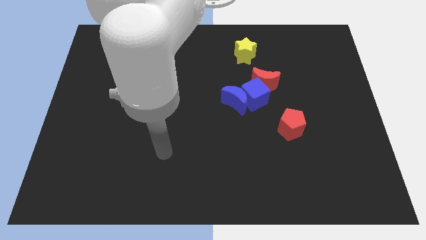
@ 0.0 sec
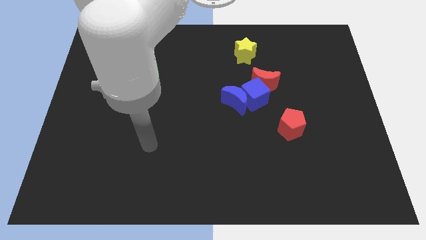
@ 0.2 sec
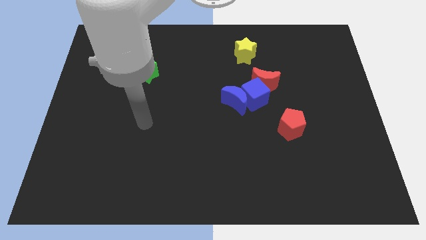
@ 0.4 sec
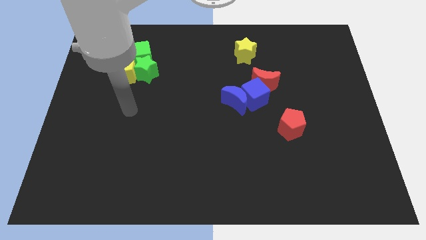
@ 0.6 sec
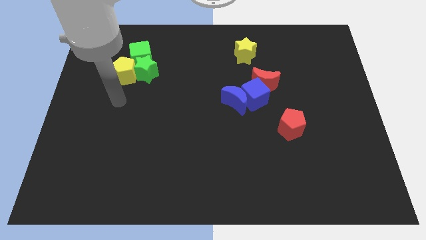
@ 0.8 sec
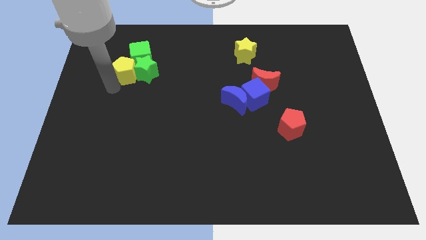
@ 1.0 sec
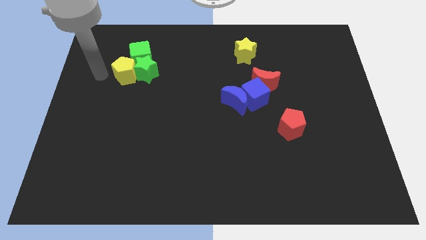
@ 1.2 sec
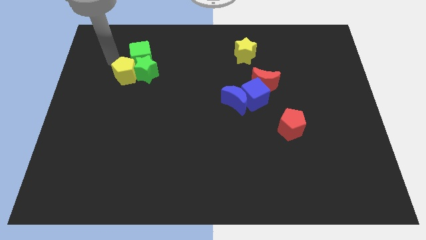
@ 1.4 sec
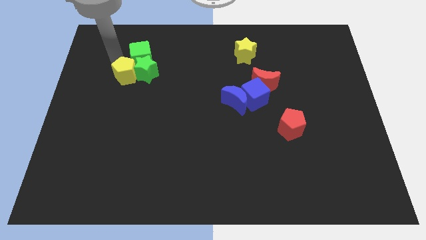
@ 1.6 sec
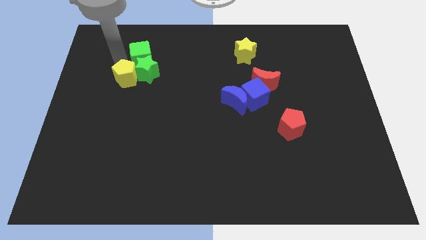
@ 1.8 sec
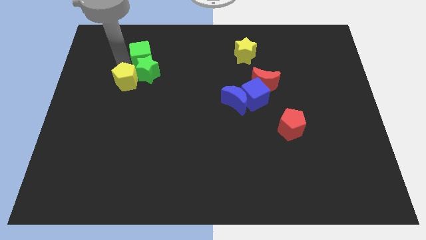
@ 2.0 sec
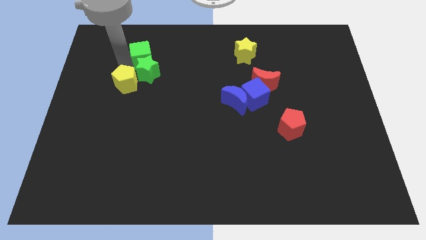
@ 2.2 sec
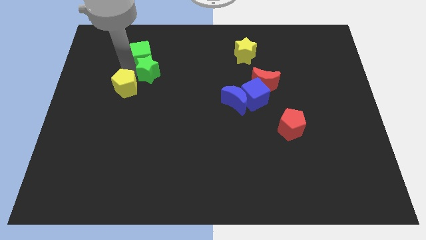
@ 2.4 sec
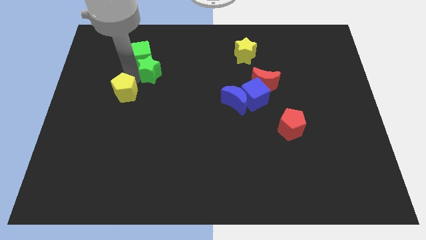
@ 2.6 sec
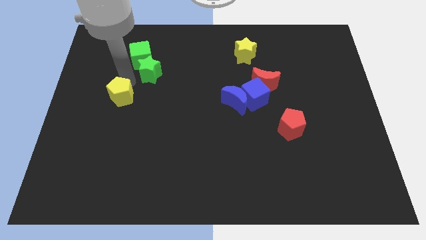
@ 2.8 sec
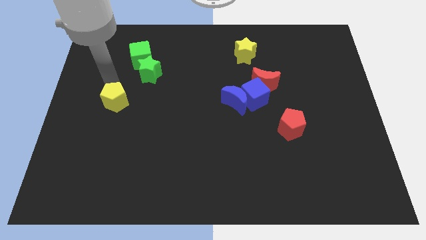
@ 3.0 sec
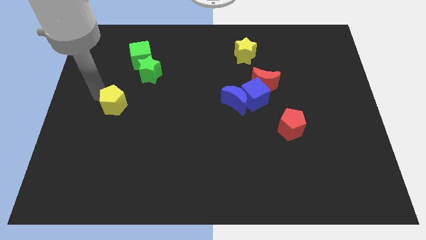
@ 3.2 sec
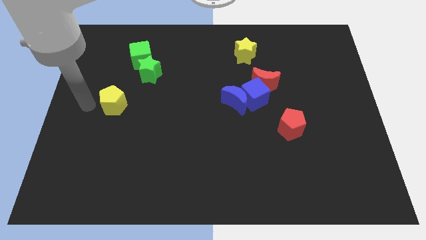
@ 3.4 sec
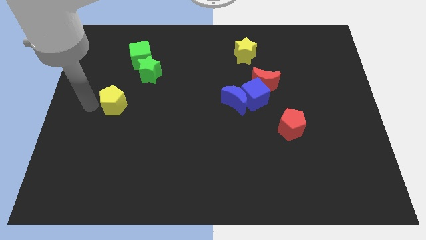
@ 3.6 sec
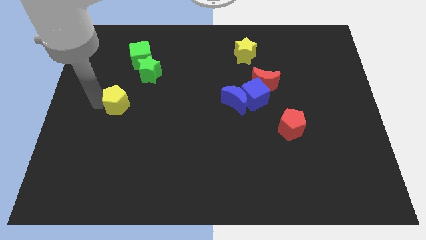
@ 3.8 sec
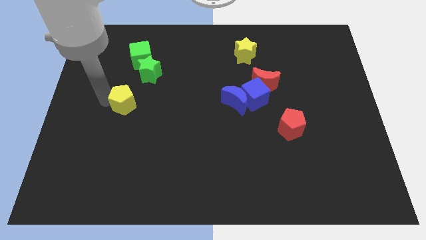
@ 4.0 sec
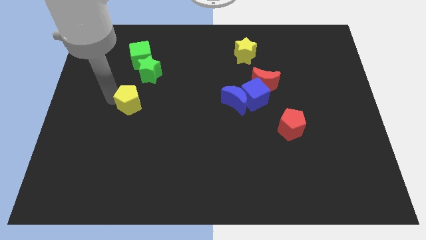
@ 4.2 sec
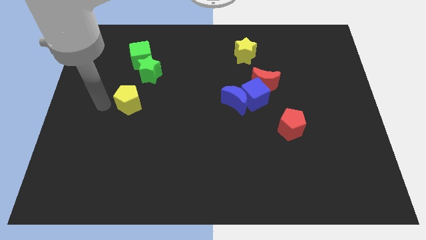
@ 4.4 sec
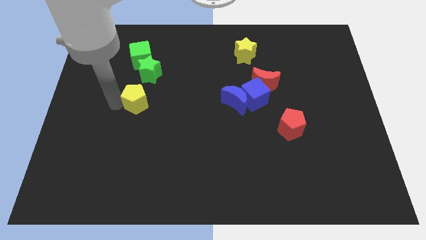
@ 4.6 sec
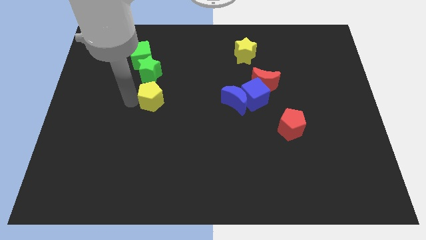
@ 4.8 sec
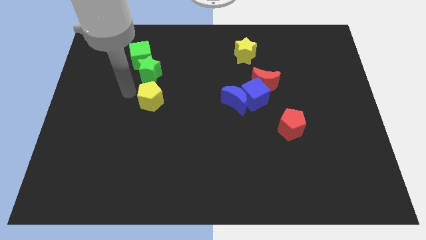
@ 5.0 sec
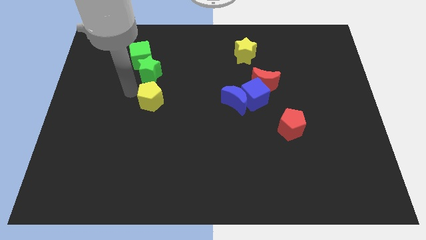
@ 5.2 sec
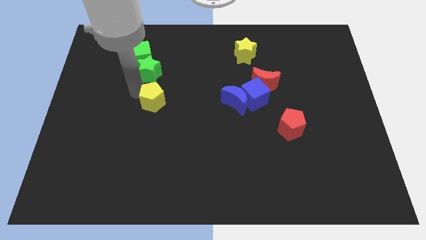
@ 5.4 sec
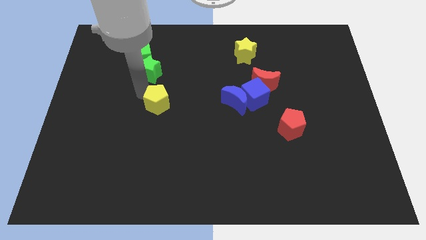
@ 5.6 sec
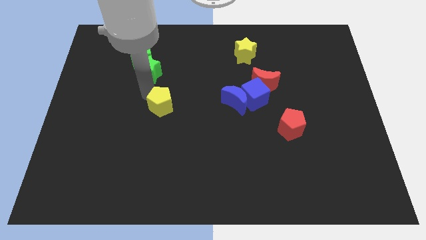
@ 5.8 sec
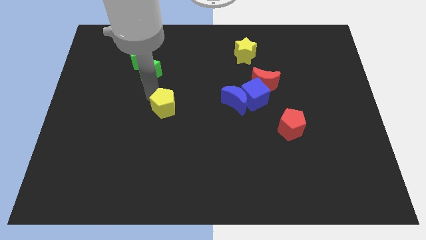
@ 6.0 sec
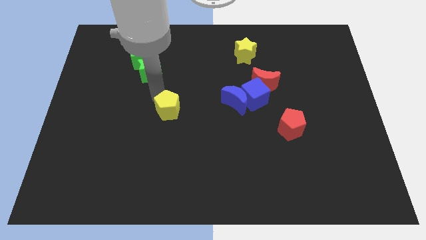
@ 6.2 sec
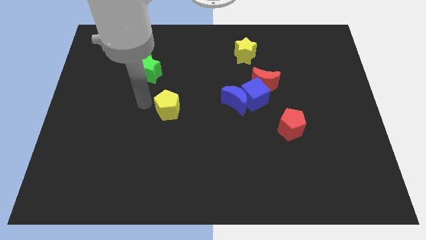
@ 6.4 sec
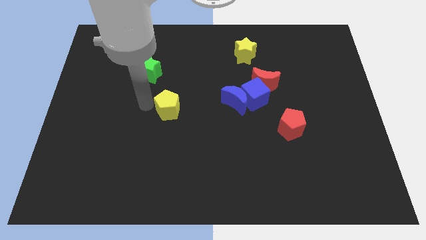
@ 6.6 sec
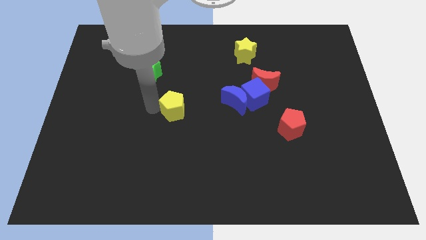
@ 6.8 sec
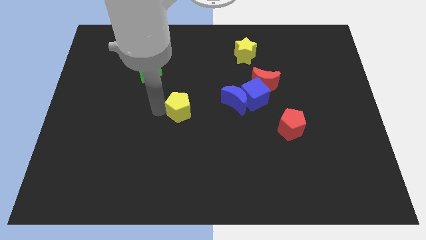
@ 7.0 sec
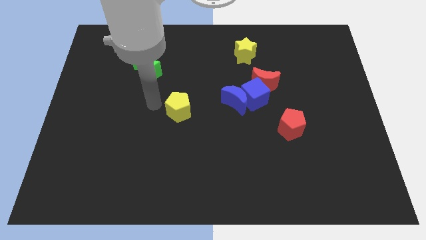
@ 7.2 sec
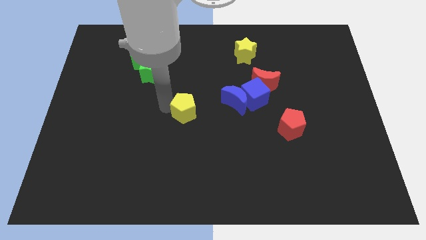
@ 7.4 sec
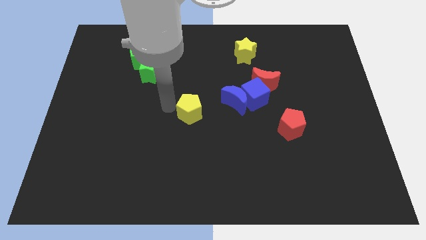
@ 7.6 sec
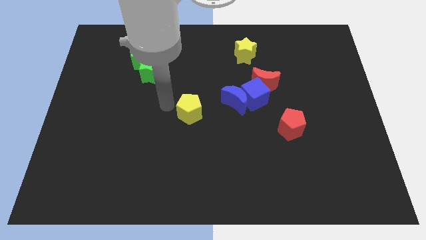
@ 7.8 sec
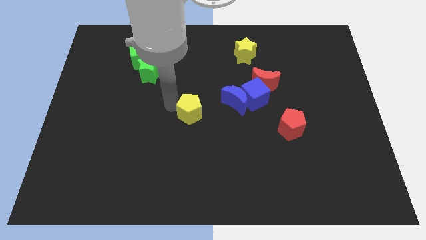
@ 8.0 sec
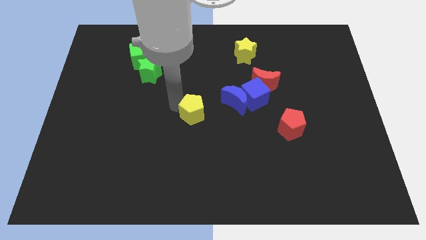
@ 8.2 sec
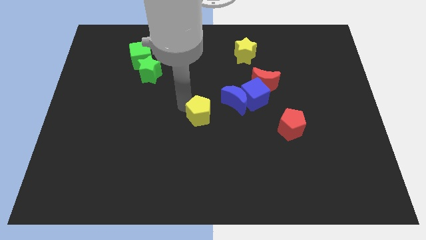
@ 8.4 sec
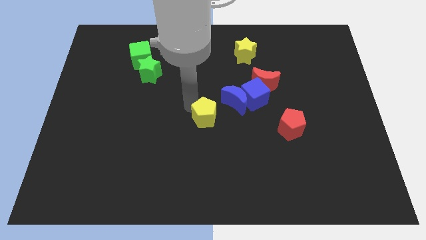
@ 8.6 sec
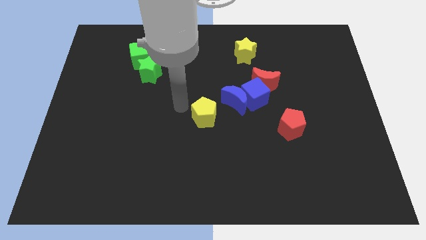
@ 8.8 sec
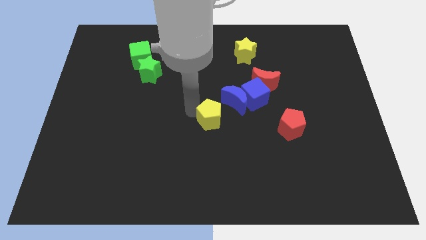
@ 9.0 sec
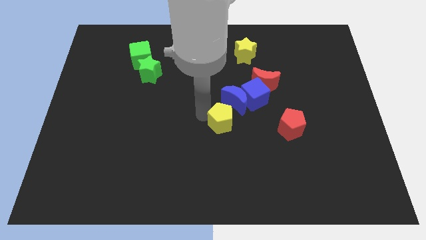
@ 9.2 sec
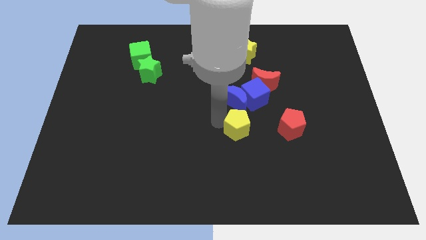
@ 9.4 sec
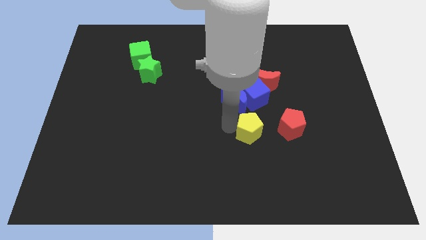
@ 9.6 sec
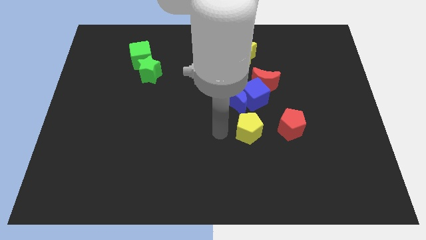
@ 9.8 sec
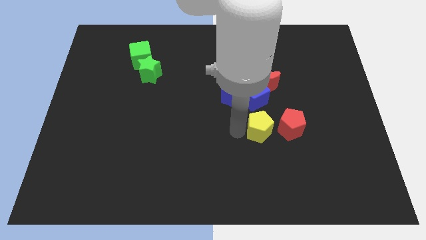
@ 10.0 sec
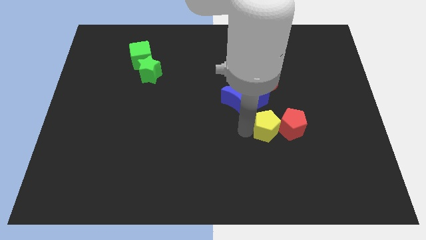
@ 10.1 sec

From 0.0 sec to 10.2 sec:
put the yellow pentagon close to the red pentagon

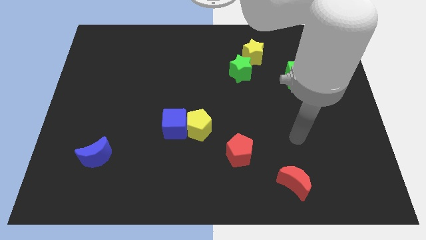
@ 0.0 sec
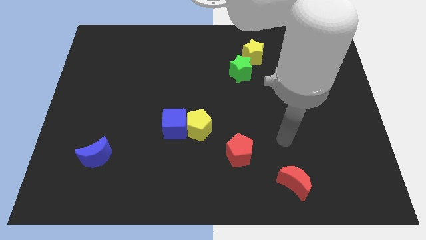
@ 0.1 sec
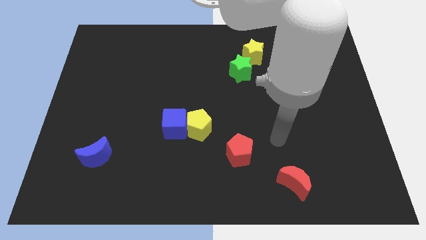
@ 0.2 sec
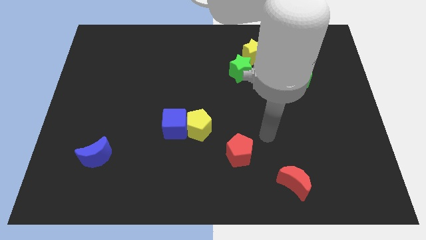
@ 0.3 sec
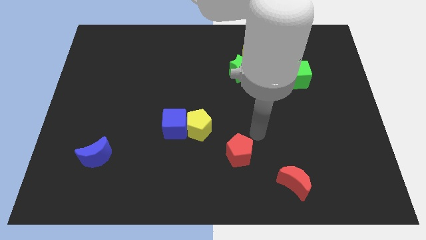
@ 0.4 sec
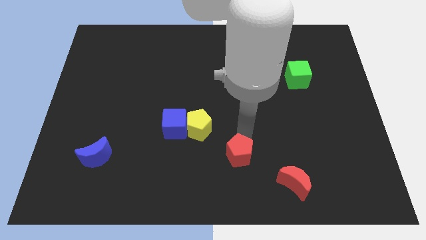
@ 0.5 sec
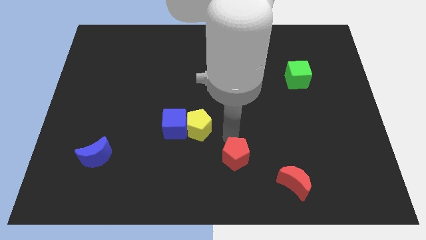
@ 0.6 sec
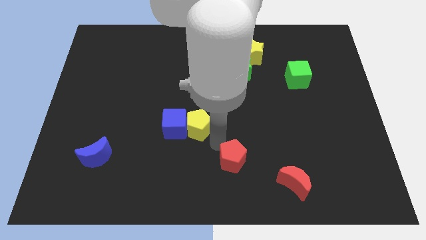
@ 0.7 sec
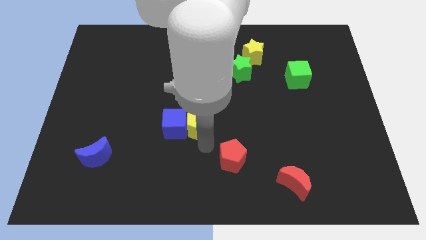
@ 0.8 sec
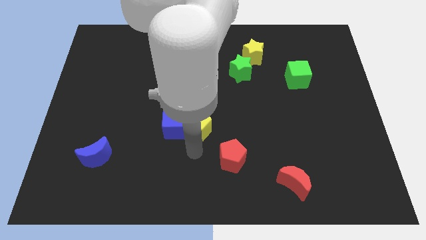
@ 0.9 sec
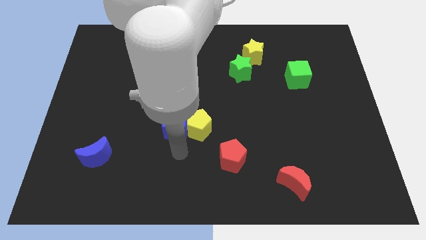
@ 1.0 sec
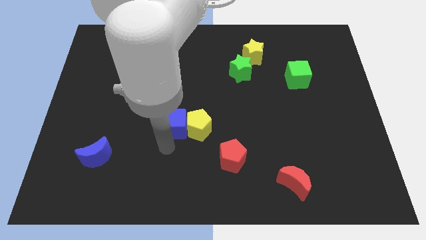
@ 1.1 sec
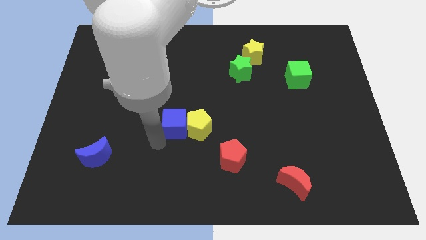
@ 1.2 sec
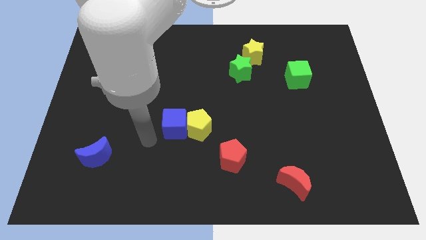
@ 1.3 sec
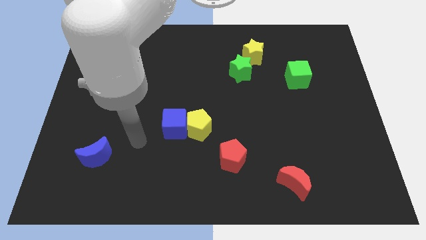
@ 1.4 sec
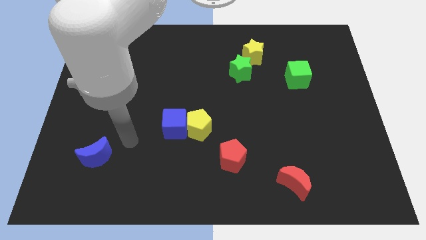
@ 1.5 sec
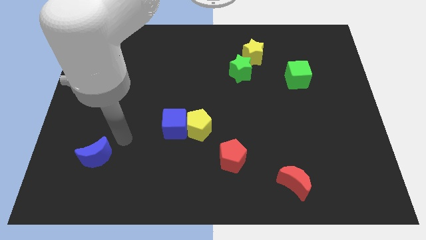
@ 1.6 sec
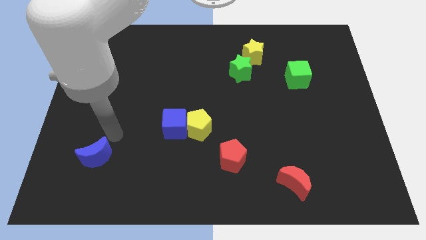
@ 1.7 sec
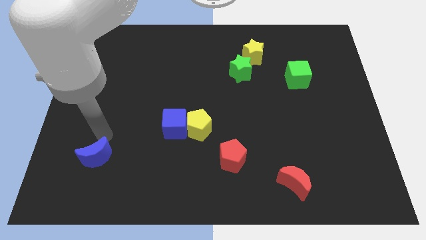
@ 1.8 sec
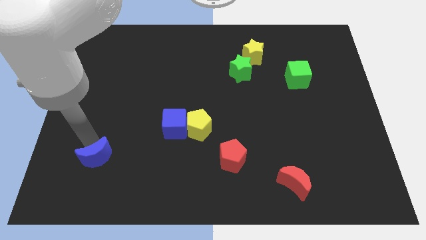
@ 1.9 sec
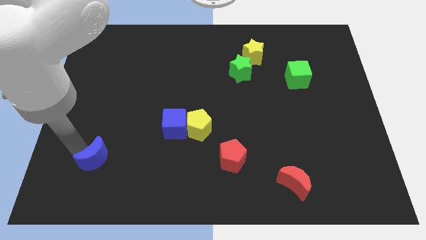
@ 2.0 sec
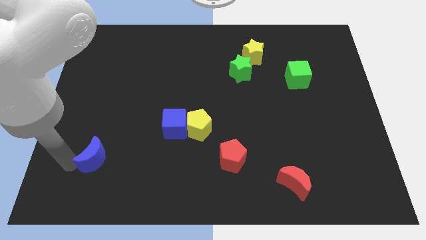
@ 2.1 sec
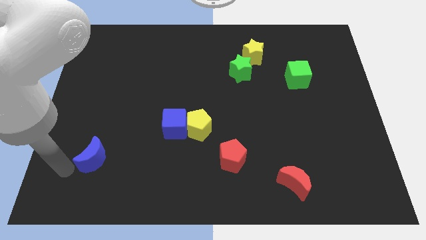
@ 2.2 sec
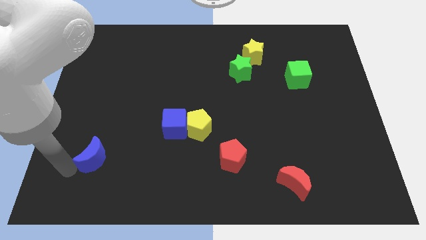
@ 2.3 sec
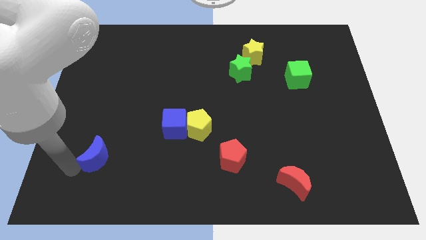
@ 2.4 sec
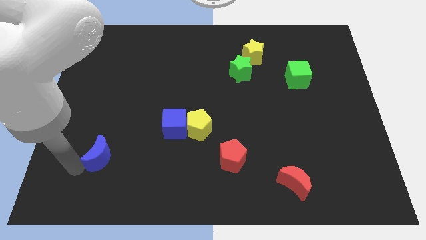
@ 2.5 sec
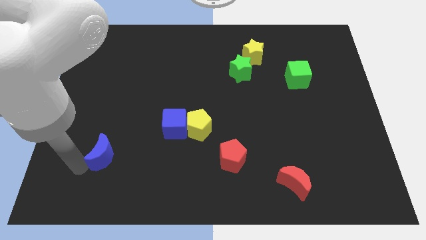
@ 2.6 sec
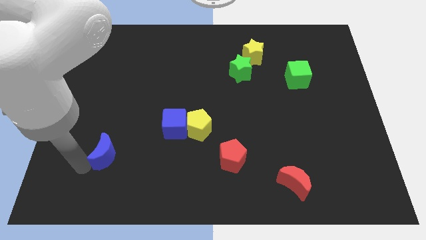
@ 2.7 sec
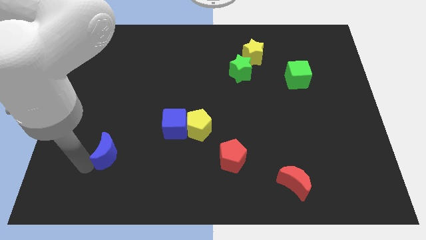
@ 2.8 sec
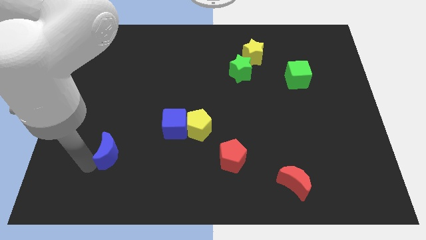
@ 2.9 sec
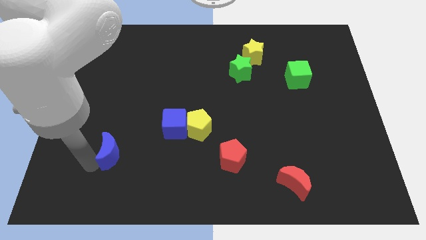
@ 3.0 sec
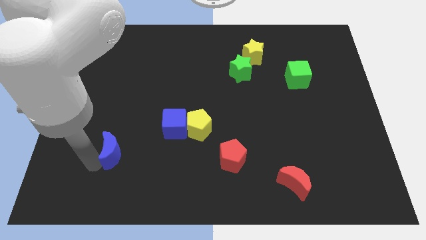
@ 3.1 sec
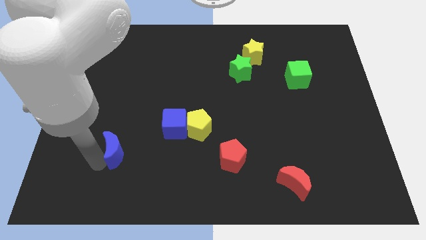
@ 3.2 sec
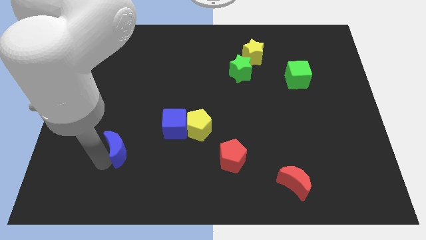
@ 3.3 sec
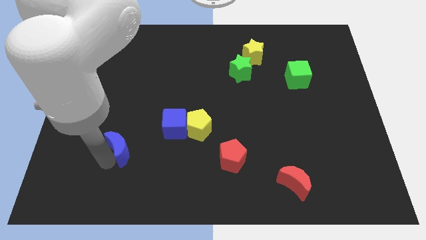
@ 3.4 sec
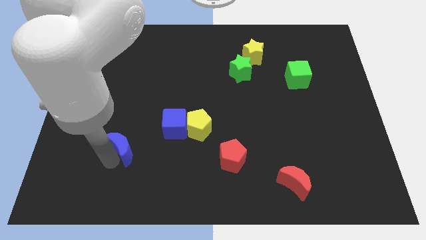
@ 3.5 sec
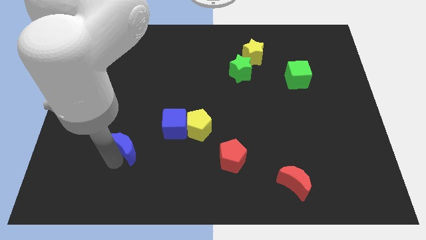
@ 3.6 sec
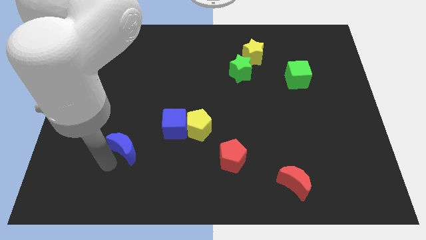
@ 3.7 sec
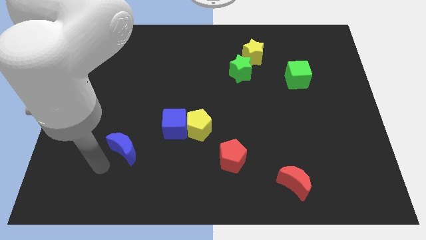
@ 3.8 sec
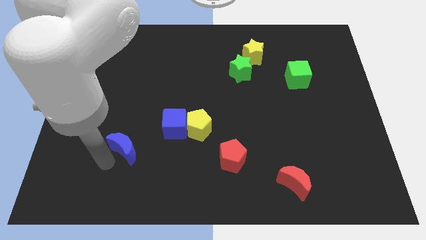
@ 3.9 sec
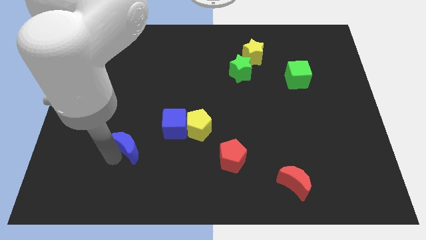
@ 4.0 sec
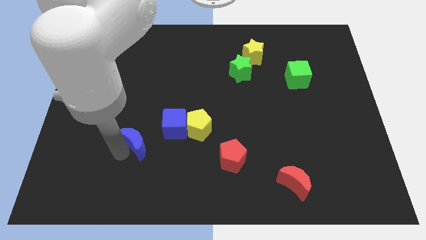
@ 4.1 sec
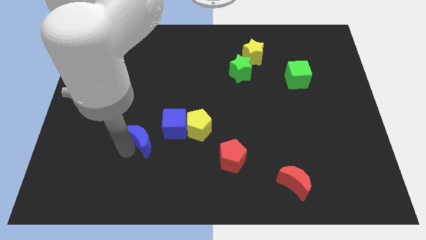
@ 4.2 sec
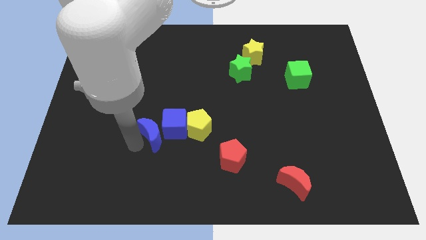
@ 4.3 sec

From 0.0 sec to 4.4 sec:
move the blue moon next to the blue cube
